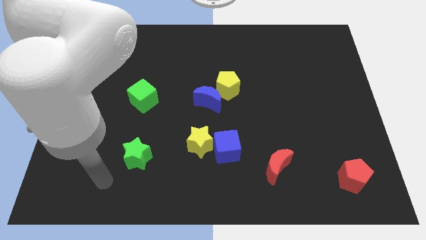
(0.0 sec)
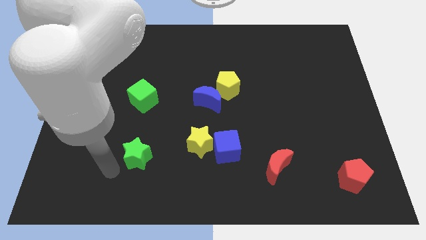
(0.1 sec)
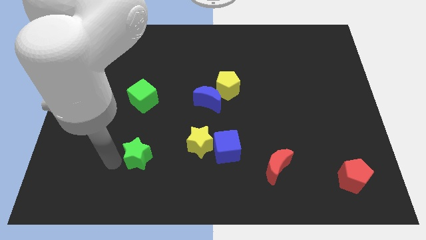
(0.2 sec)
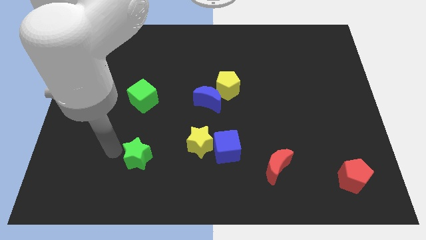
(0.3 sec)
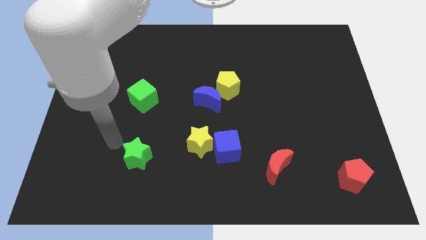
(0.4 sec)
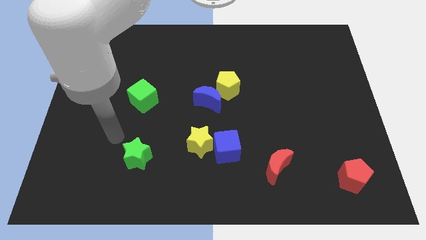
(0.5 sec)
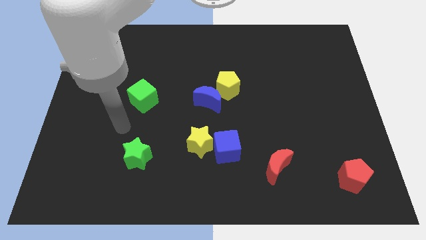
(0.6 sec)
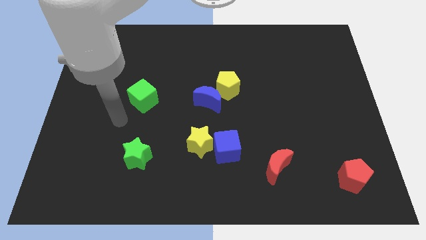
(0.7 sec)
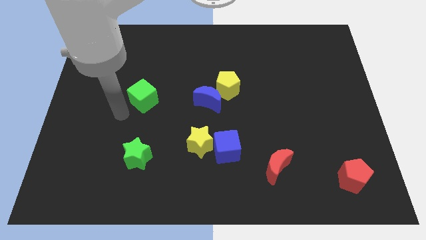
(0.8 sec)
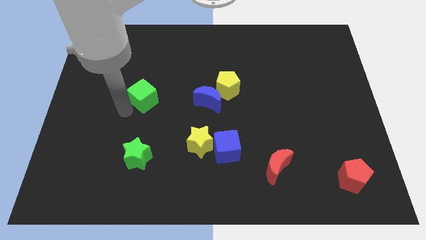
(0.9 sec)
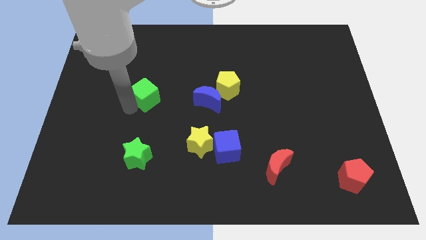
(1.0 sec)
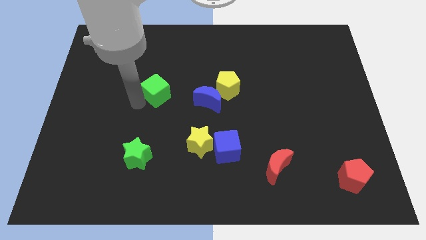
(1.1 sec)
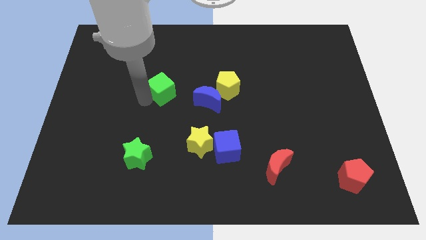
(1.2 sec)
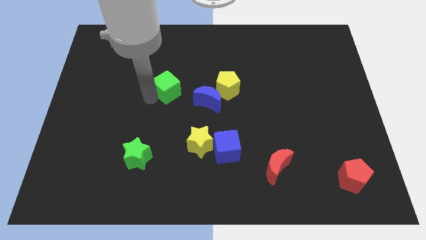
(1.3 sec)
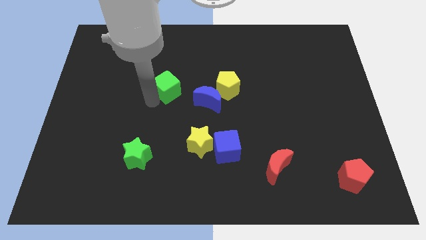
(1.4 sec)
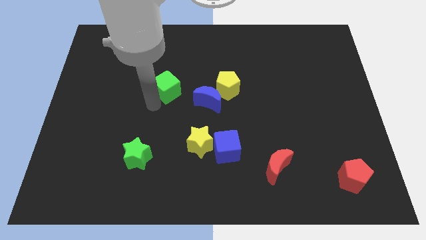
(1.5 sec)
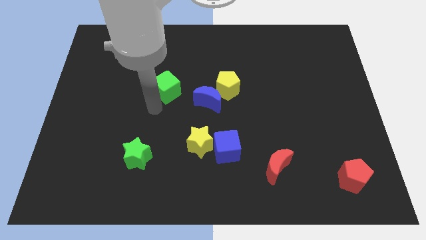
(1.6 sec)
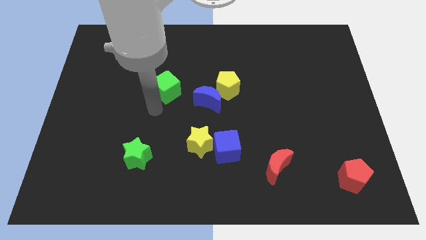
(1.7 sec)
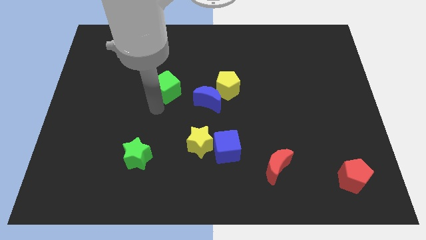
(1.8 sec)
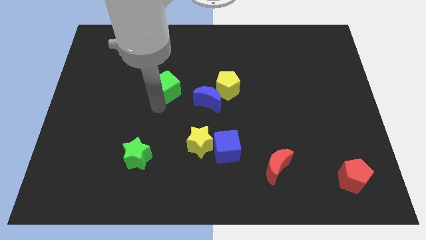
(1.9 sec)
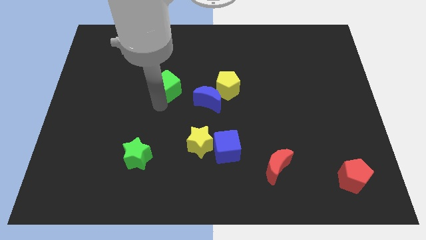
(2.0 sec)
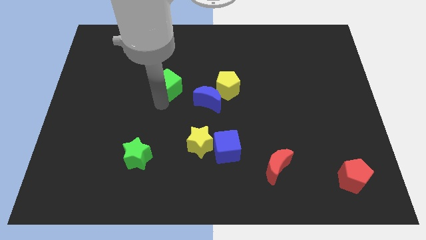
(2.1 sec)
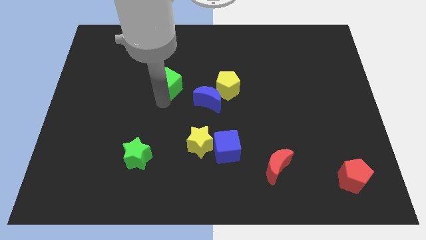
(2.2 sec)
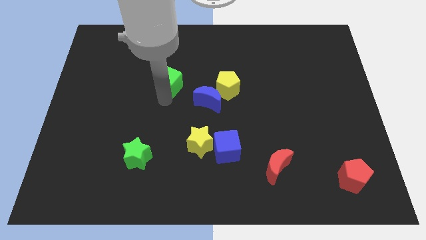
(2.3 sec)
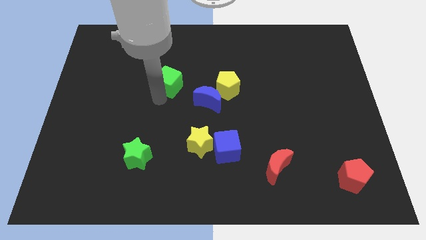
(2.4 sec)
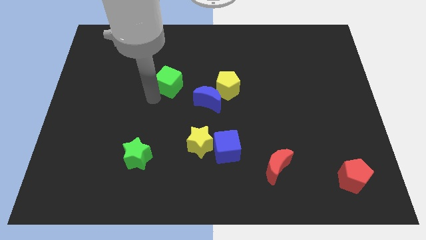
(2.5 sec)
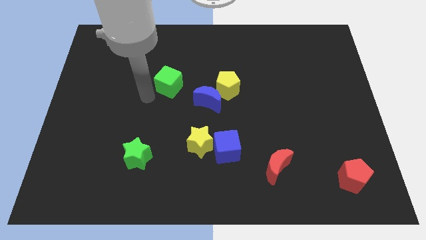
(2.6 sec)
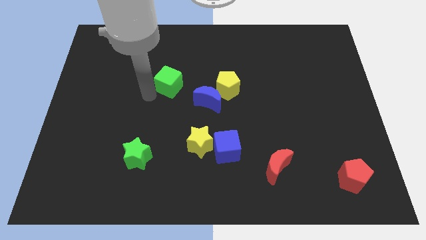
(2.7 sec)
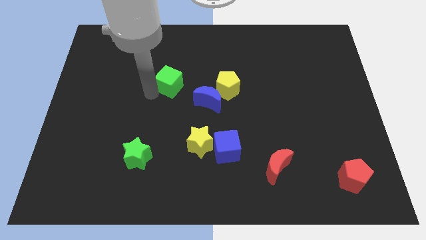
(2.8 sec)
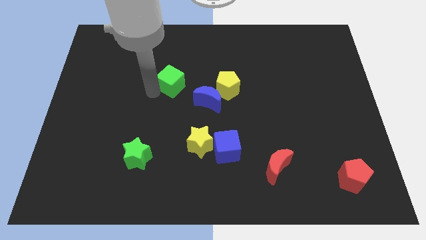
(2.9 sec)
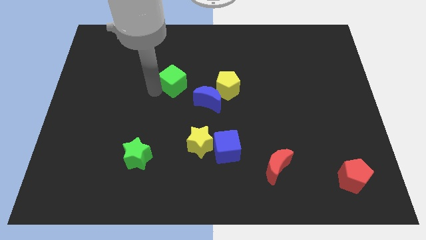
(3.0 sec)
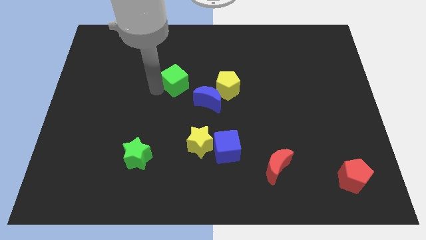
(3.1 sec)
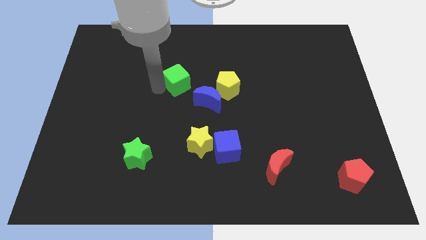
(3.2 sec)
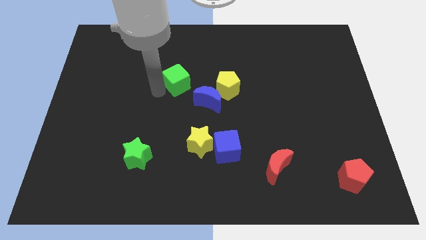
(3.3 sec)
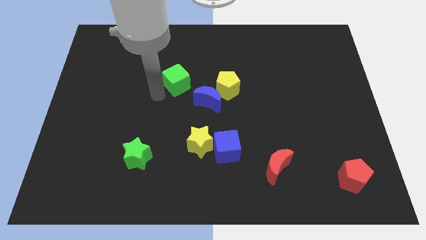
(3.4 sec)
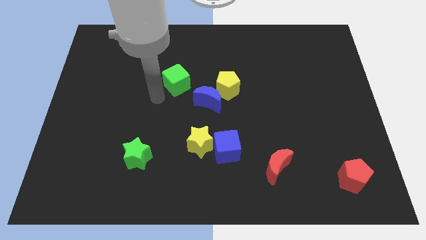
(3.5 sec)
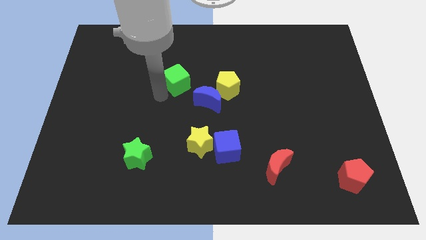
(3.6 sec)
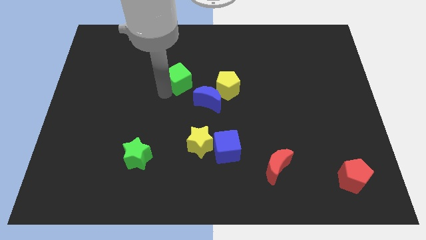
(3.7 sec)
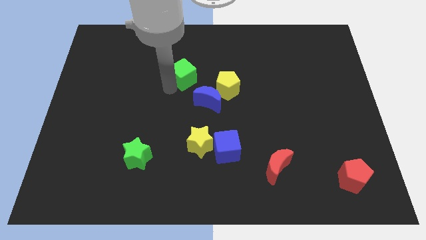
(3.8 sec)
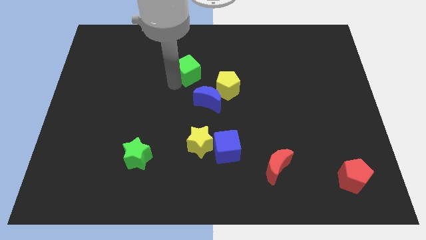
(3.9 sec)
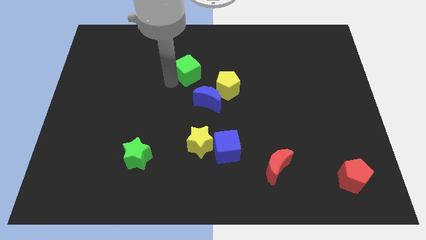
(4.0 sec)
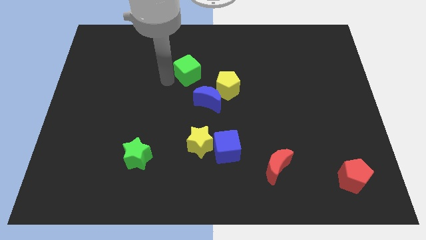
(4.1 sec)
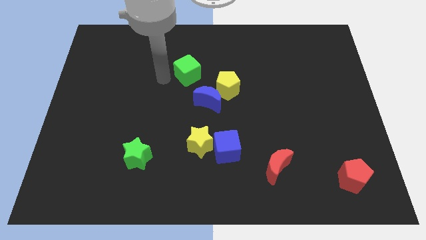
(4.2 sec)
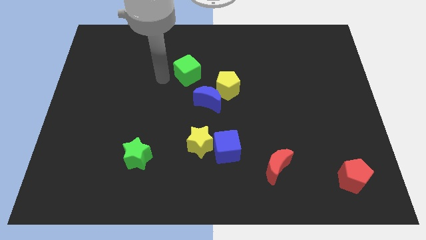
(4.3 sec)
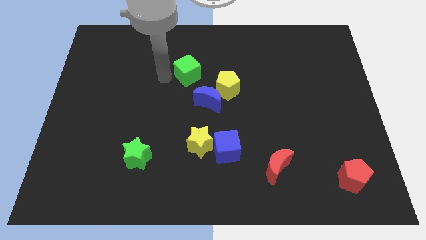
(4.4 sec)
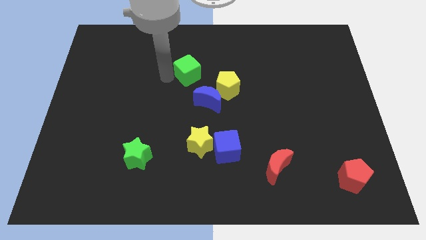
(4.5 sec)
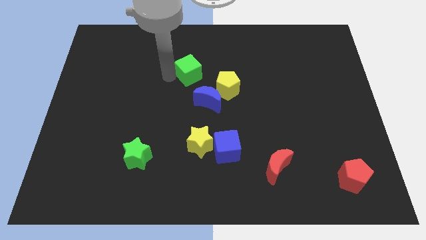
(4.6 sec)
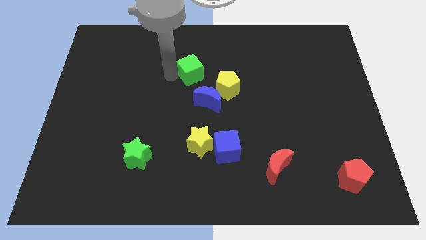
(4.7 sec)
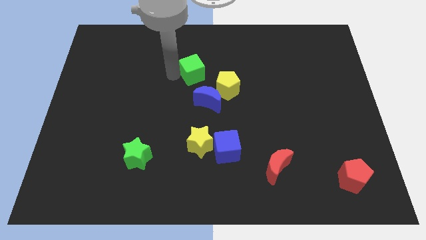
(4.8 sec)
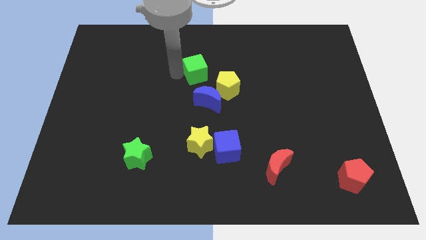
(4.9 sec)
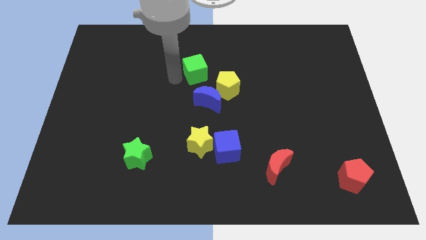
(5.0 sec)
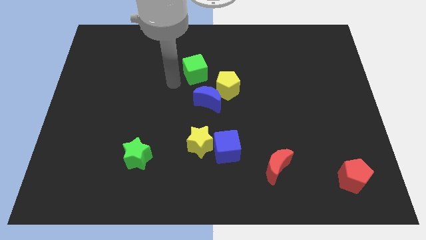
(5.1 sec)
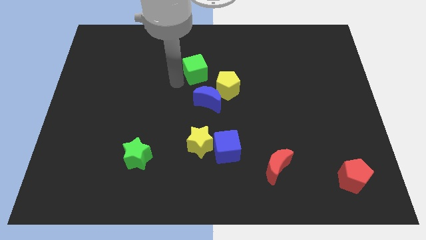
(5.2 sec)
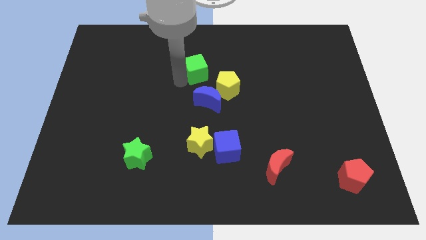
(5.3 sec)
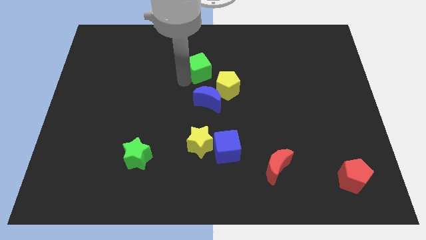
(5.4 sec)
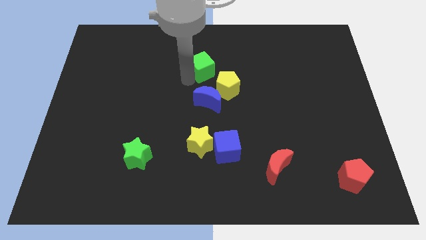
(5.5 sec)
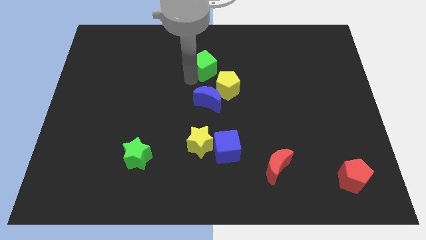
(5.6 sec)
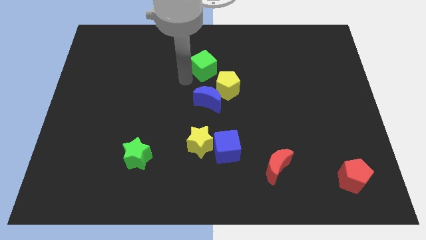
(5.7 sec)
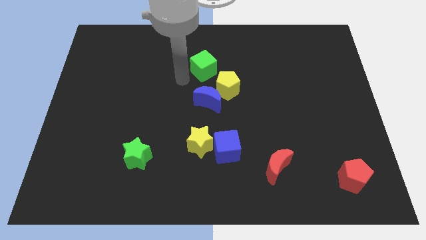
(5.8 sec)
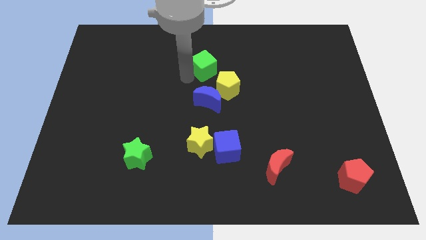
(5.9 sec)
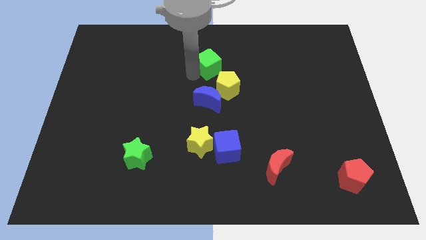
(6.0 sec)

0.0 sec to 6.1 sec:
slide the green cube above the yellow pentagon

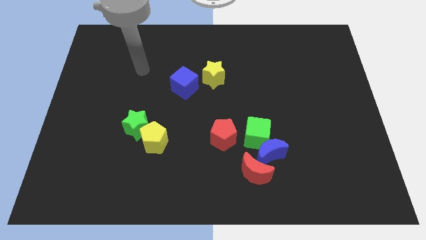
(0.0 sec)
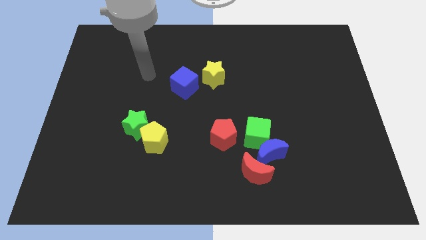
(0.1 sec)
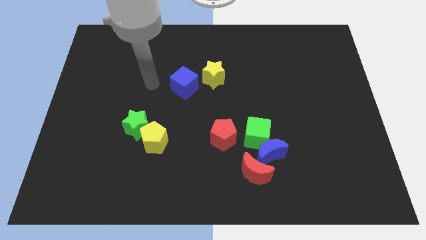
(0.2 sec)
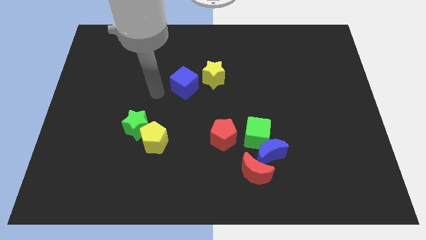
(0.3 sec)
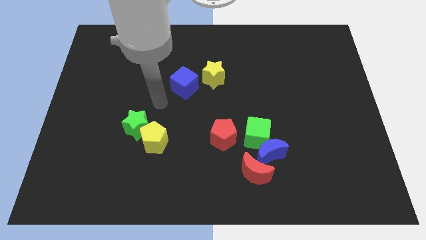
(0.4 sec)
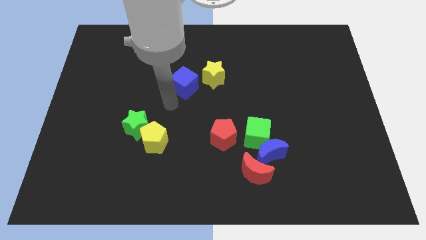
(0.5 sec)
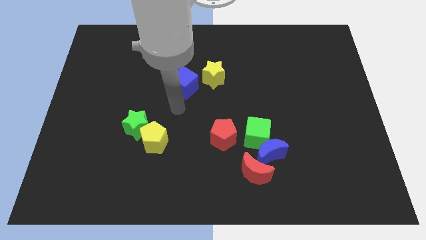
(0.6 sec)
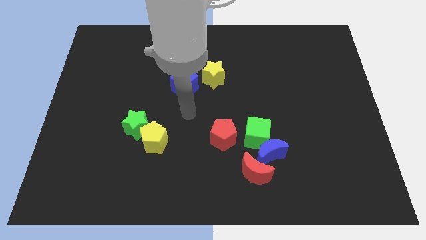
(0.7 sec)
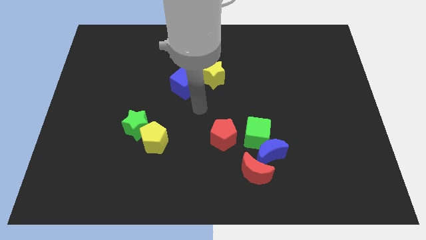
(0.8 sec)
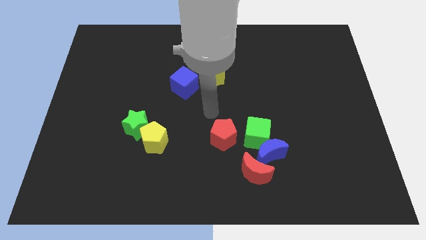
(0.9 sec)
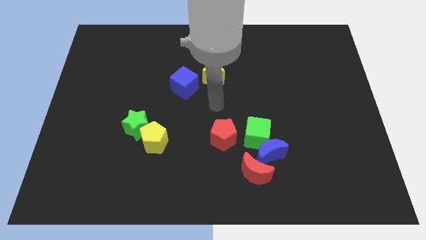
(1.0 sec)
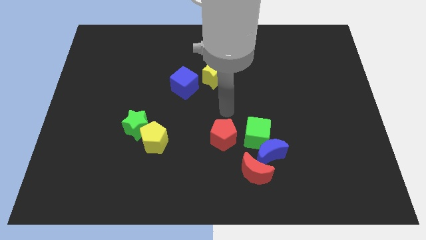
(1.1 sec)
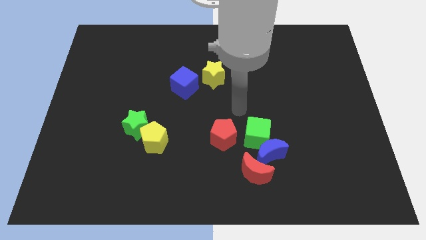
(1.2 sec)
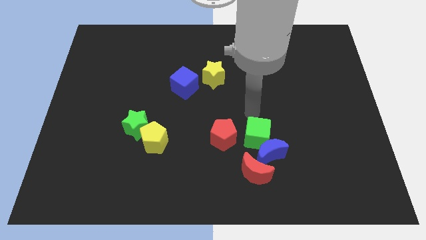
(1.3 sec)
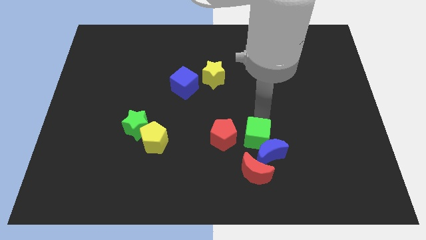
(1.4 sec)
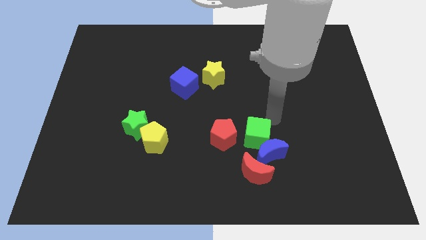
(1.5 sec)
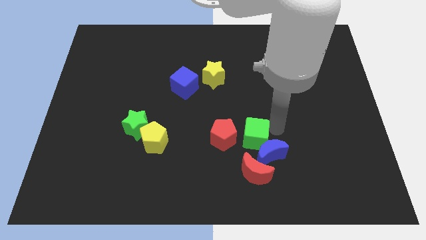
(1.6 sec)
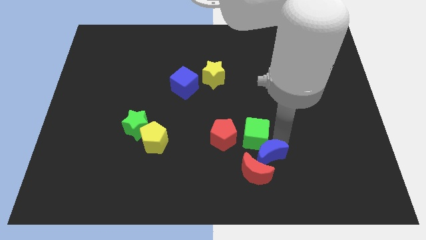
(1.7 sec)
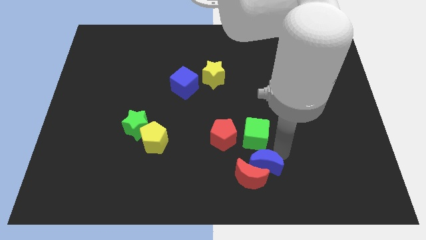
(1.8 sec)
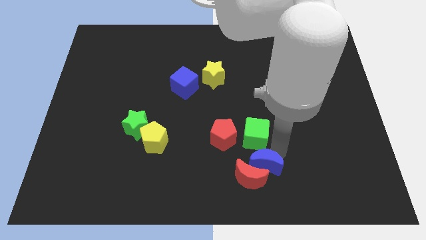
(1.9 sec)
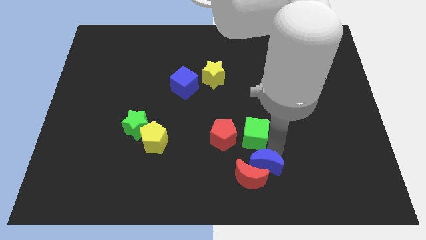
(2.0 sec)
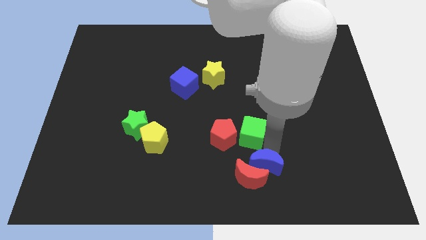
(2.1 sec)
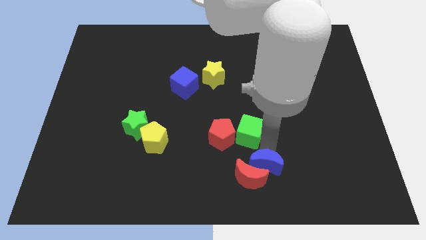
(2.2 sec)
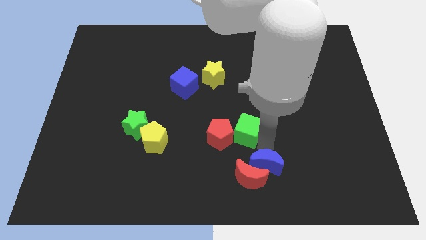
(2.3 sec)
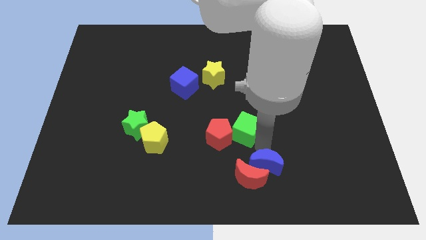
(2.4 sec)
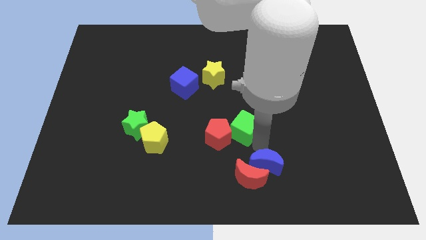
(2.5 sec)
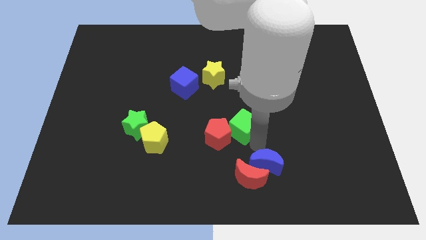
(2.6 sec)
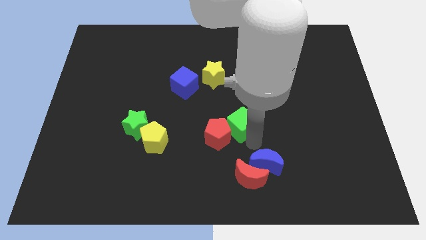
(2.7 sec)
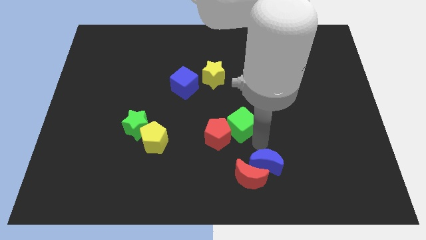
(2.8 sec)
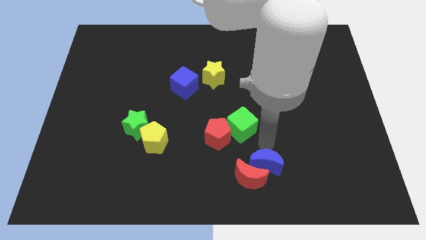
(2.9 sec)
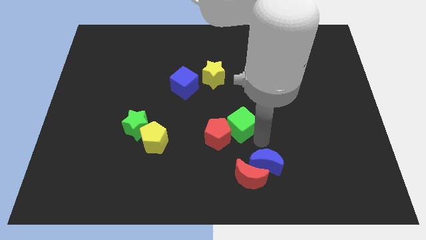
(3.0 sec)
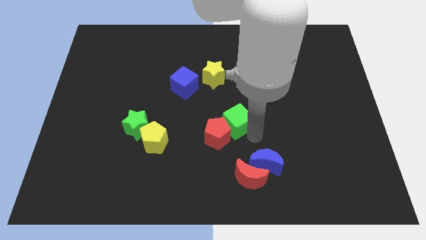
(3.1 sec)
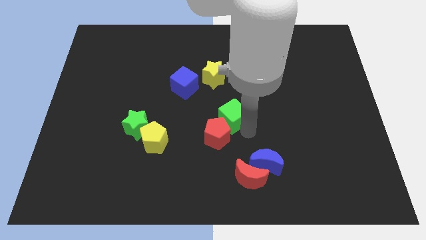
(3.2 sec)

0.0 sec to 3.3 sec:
slide the green cube to the bottom side of the yellow star
